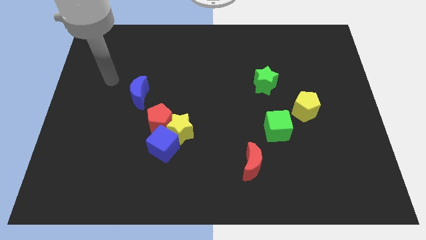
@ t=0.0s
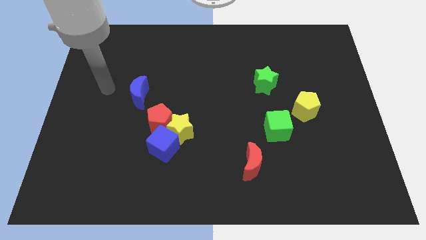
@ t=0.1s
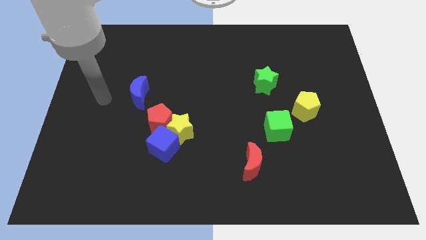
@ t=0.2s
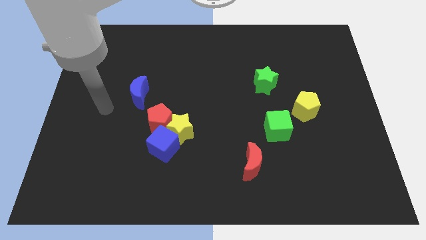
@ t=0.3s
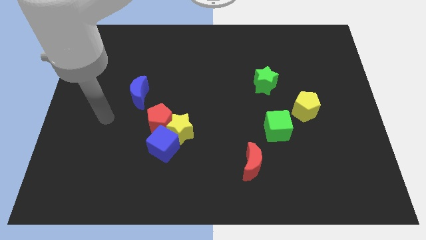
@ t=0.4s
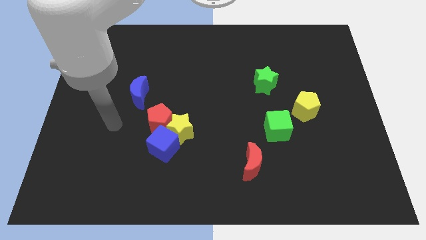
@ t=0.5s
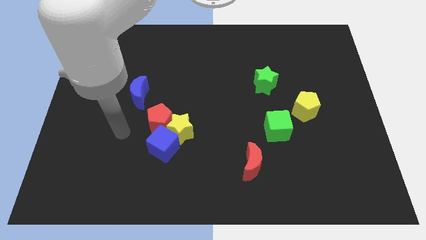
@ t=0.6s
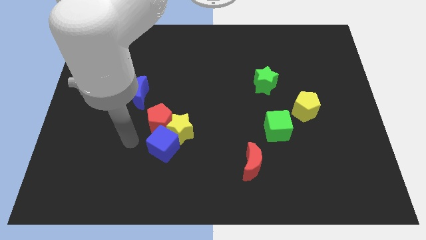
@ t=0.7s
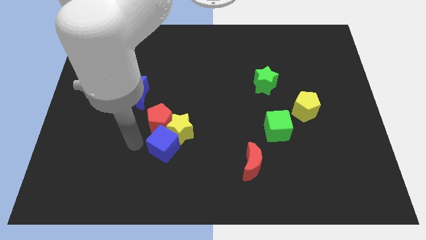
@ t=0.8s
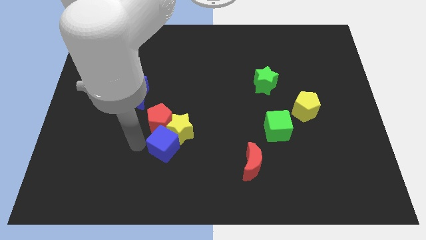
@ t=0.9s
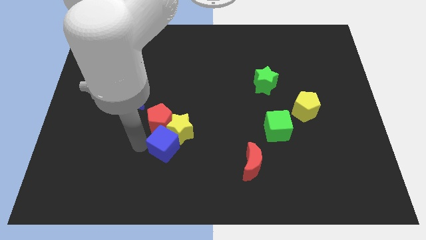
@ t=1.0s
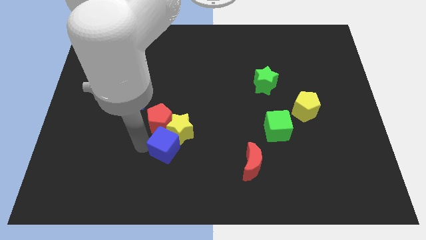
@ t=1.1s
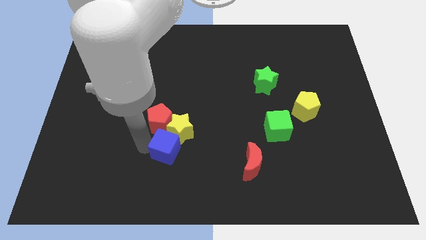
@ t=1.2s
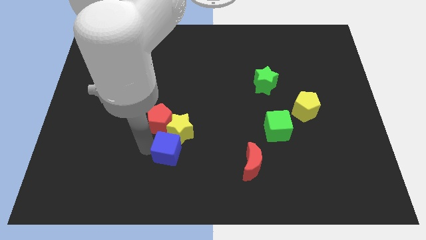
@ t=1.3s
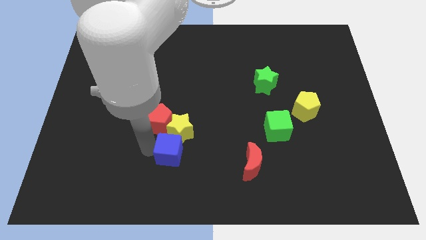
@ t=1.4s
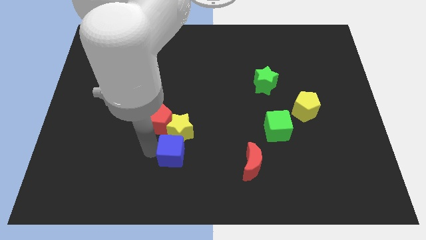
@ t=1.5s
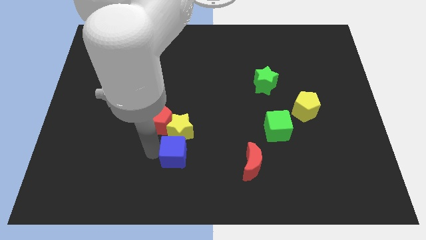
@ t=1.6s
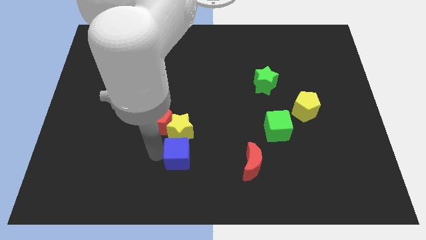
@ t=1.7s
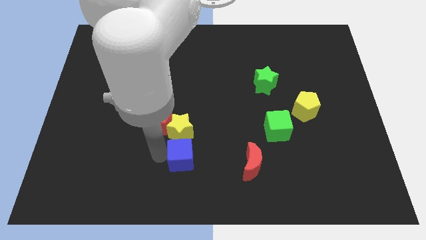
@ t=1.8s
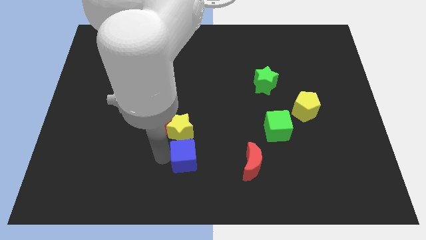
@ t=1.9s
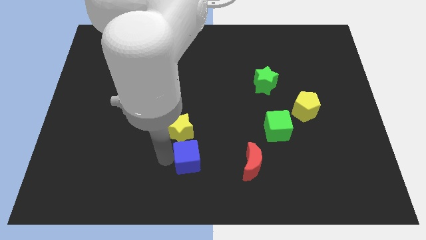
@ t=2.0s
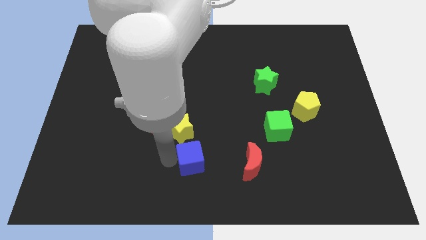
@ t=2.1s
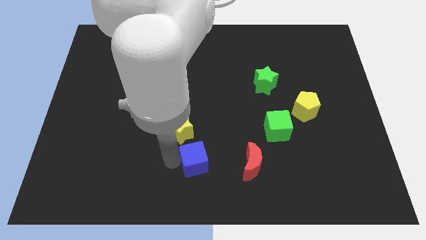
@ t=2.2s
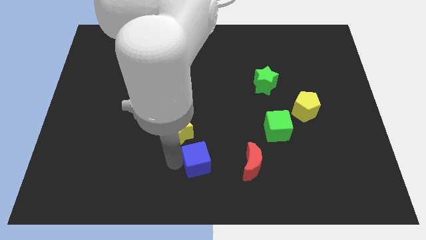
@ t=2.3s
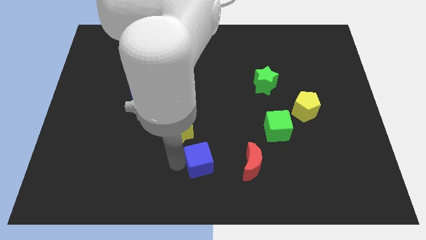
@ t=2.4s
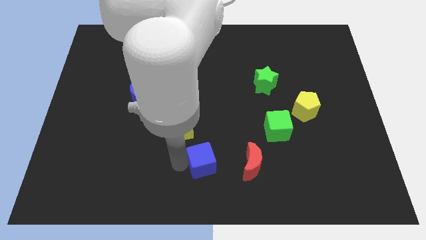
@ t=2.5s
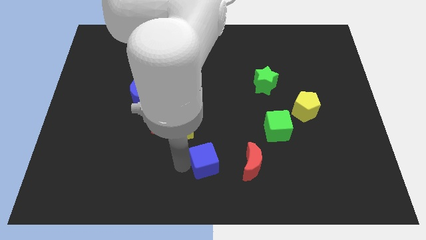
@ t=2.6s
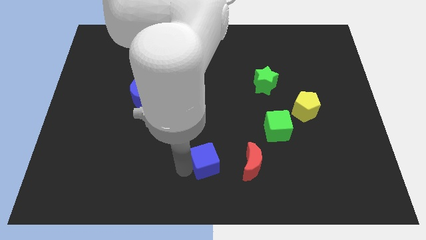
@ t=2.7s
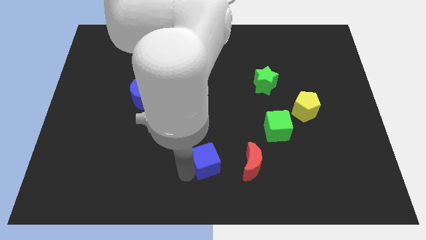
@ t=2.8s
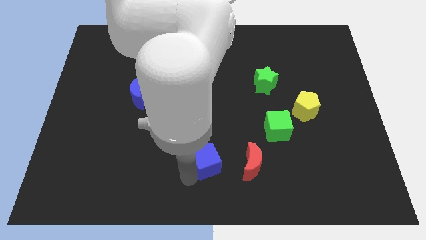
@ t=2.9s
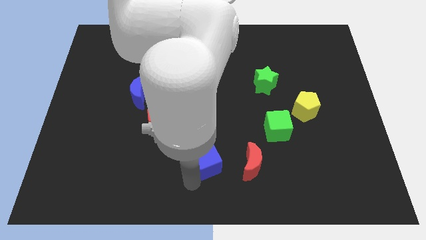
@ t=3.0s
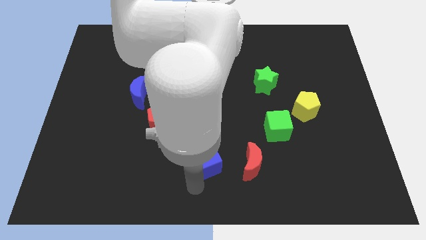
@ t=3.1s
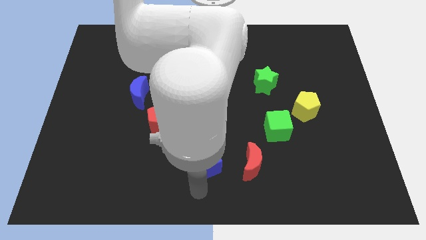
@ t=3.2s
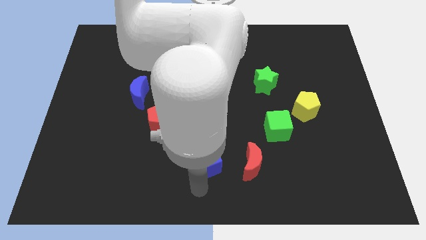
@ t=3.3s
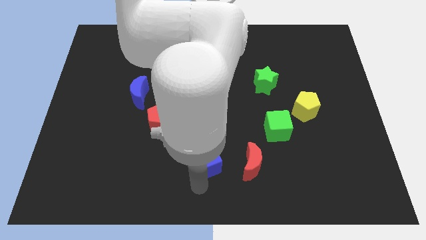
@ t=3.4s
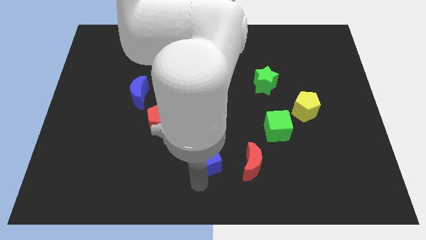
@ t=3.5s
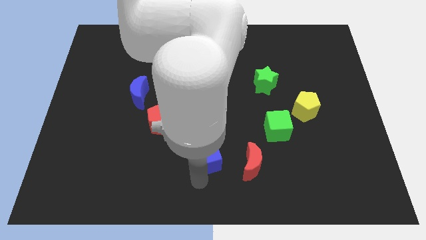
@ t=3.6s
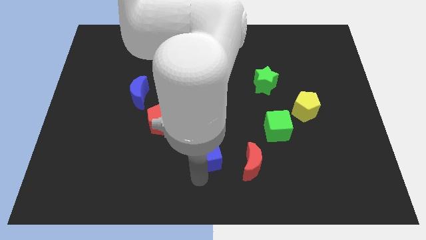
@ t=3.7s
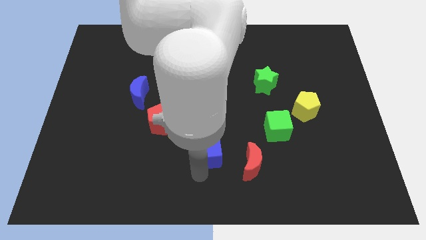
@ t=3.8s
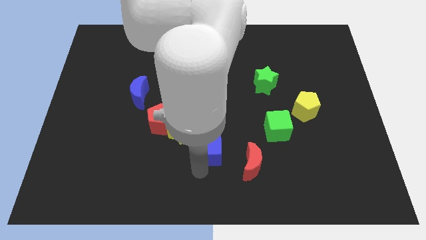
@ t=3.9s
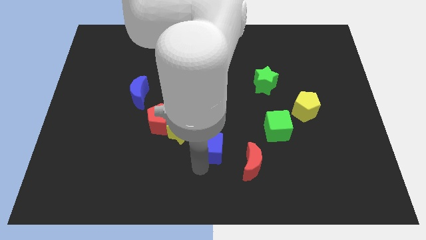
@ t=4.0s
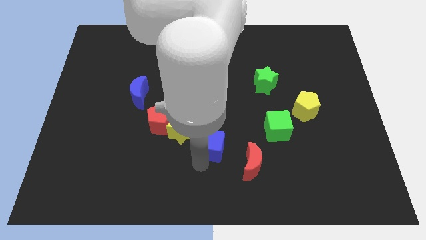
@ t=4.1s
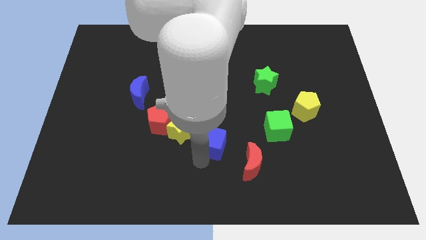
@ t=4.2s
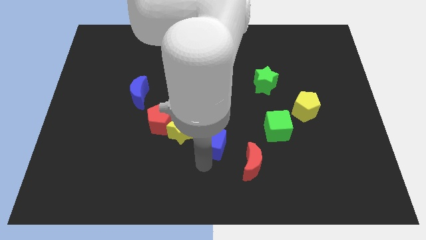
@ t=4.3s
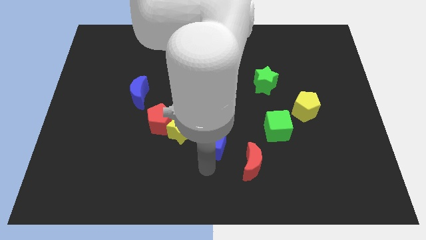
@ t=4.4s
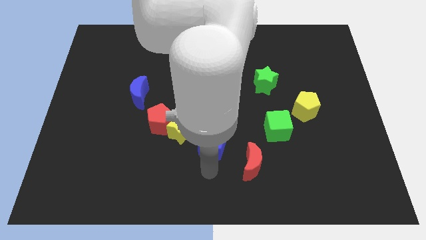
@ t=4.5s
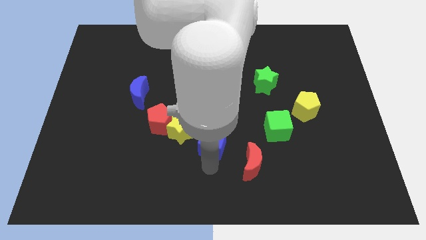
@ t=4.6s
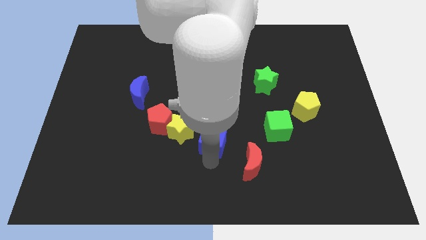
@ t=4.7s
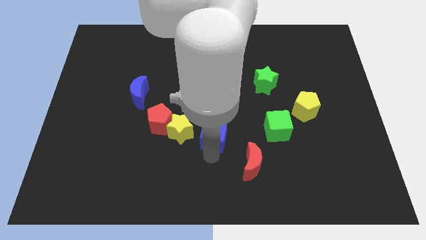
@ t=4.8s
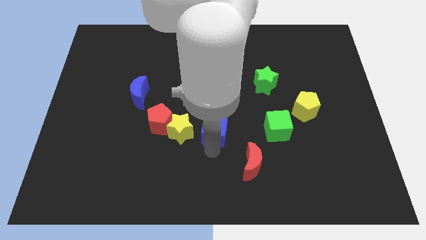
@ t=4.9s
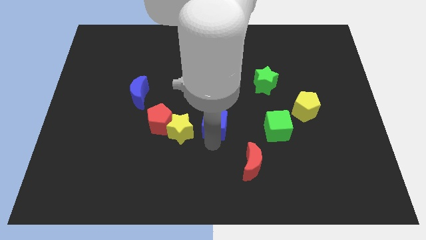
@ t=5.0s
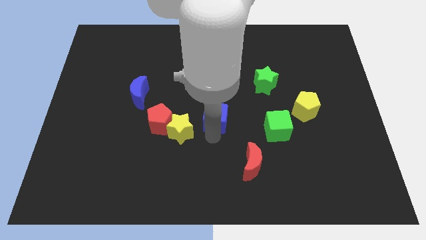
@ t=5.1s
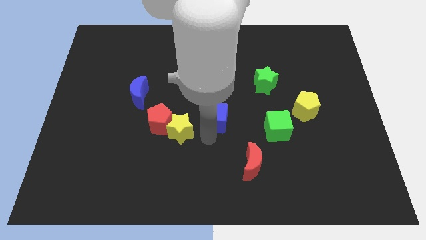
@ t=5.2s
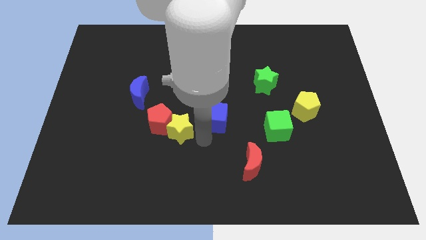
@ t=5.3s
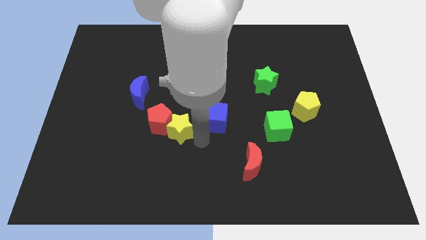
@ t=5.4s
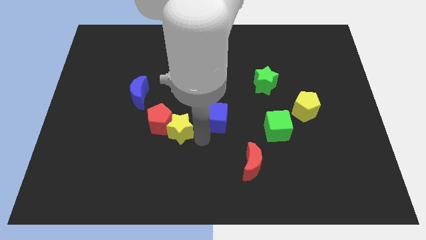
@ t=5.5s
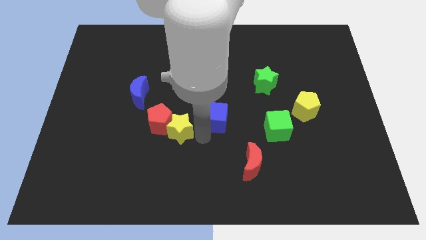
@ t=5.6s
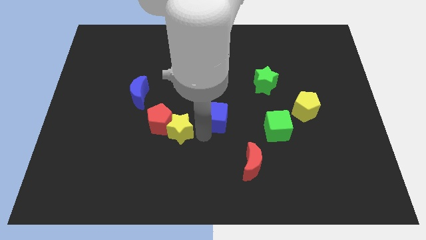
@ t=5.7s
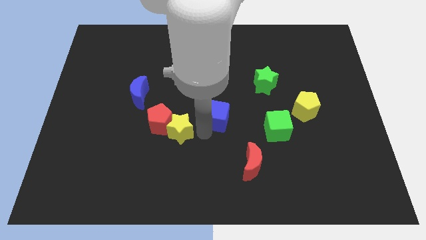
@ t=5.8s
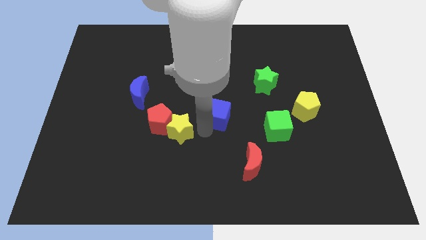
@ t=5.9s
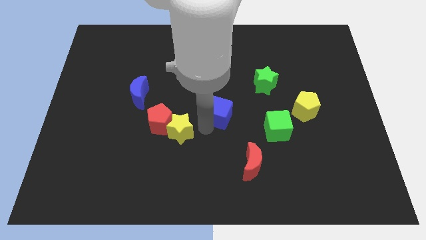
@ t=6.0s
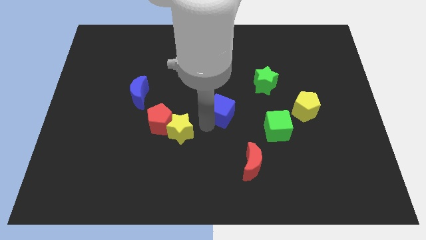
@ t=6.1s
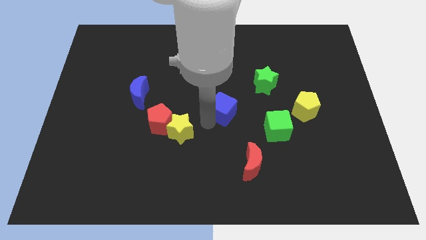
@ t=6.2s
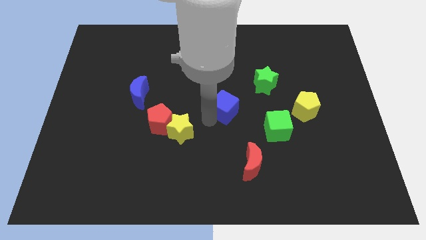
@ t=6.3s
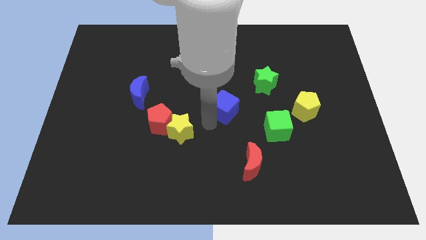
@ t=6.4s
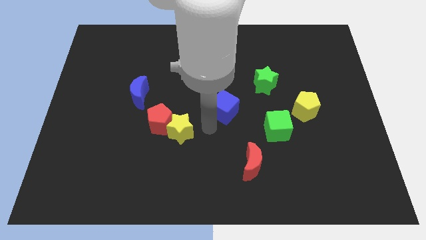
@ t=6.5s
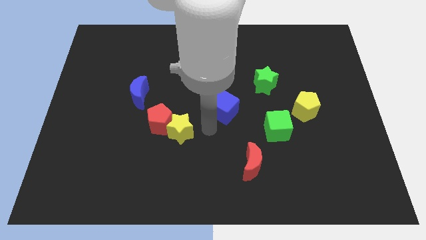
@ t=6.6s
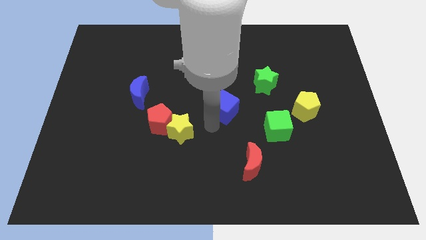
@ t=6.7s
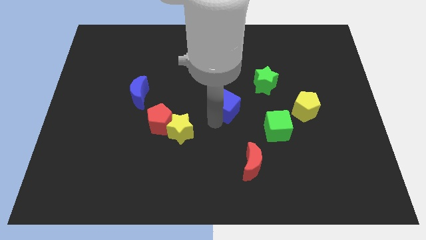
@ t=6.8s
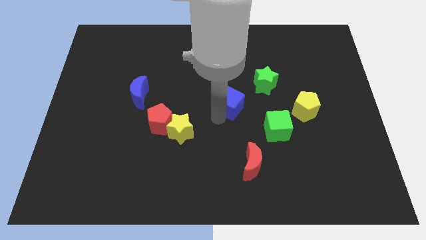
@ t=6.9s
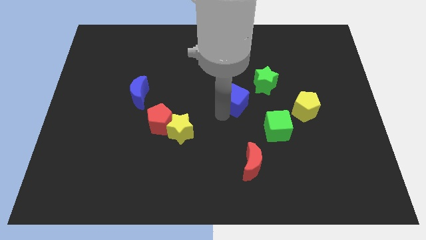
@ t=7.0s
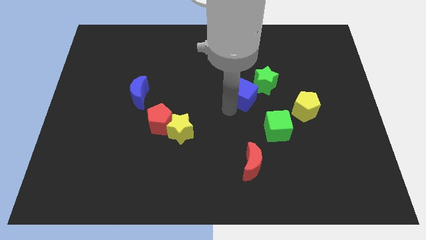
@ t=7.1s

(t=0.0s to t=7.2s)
push the blue cube up and then to the right

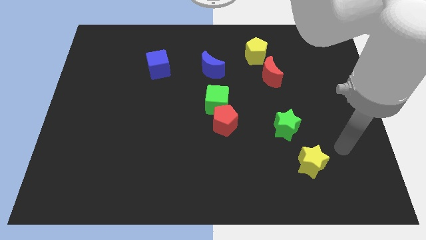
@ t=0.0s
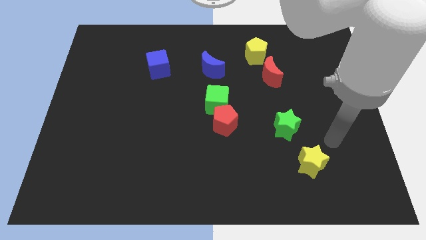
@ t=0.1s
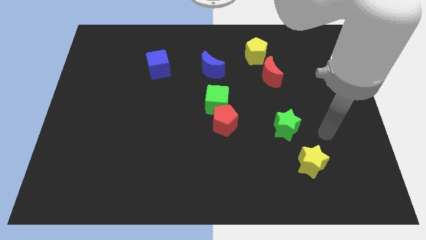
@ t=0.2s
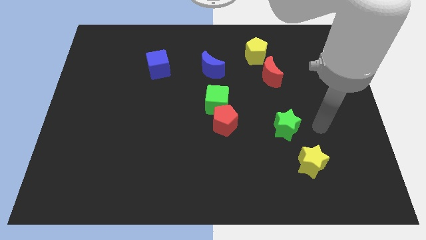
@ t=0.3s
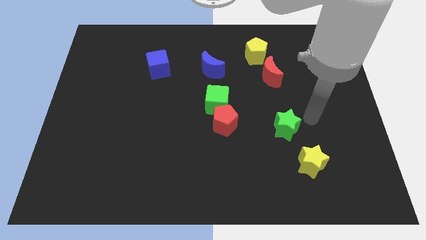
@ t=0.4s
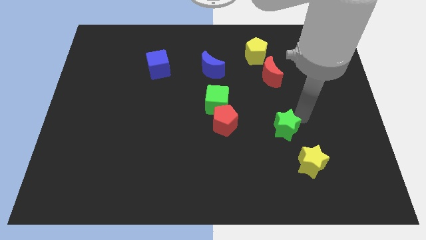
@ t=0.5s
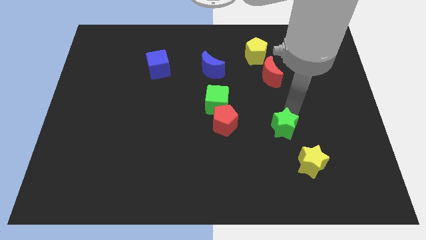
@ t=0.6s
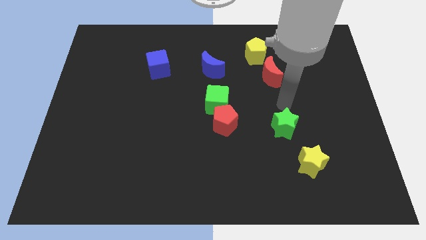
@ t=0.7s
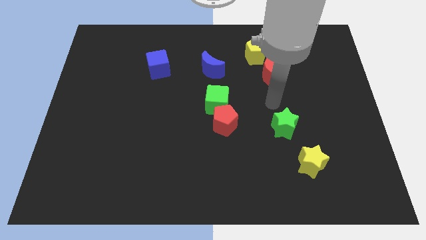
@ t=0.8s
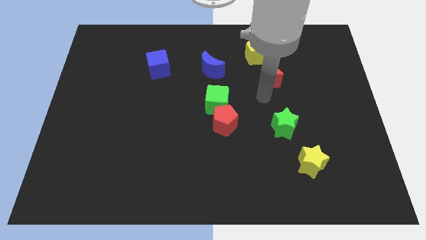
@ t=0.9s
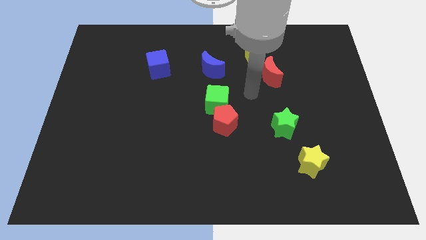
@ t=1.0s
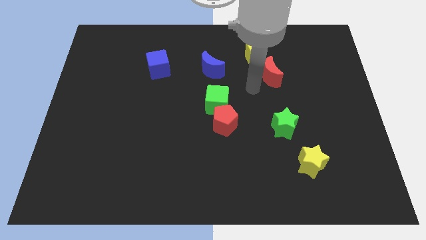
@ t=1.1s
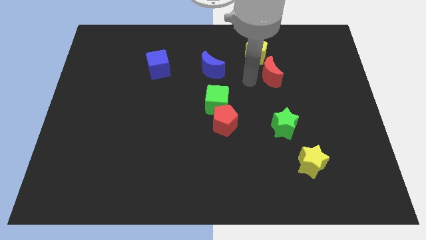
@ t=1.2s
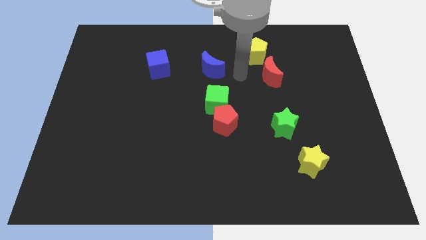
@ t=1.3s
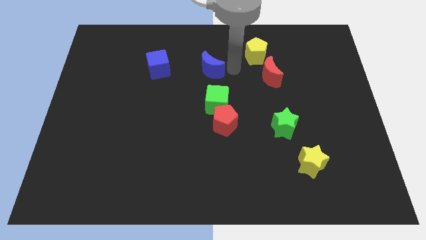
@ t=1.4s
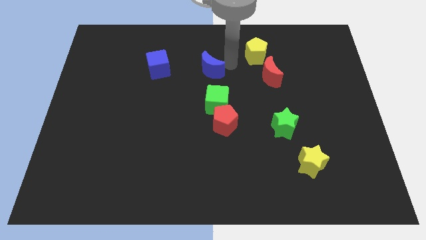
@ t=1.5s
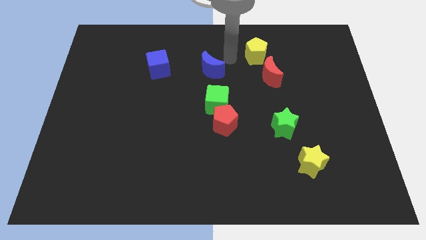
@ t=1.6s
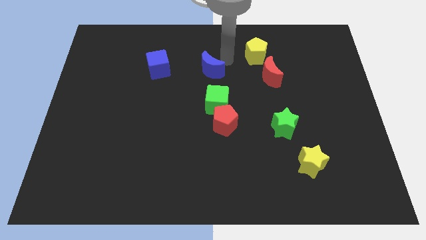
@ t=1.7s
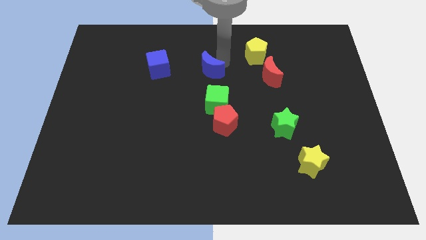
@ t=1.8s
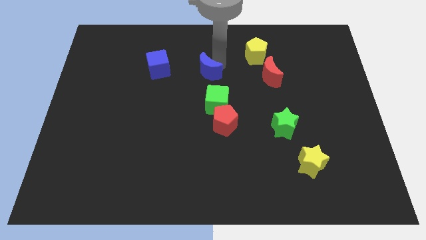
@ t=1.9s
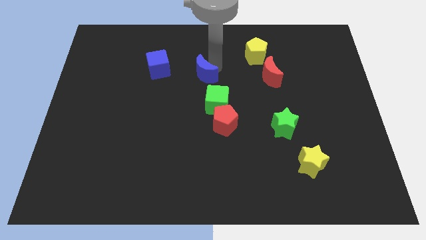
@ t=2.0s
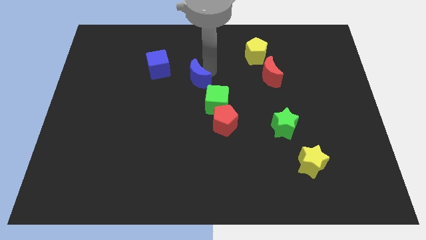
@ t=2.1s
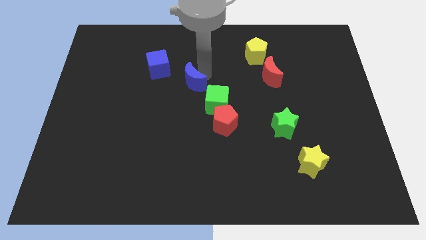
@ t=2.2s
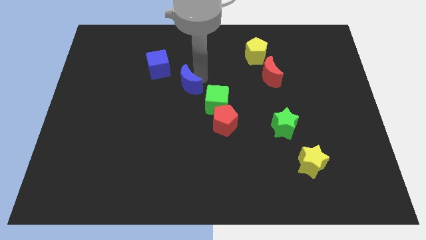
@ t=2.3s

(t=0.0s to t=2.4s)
slightly push the blue moon diagonally downwards and to the left
